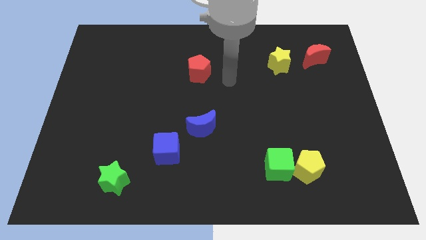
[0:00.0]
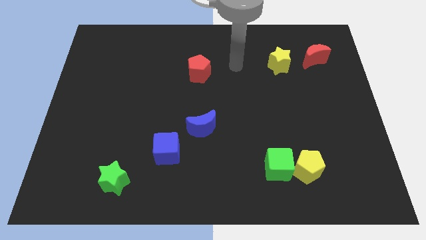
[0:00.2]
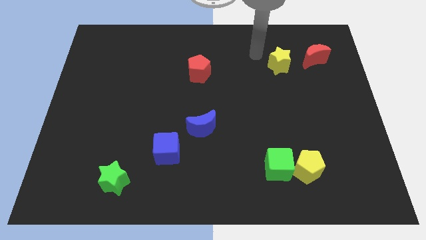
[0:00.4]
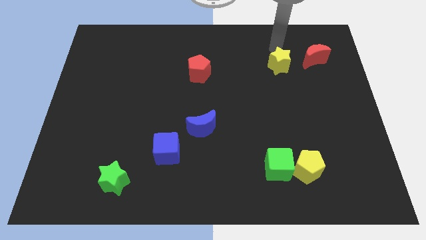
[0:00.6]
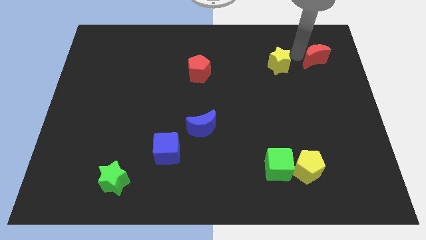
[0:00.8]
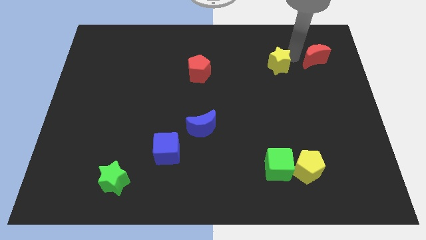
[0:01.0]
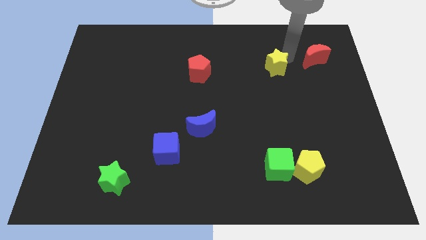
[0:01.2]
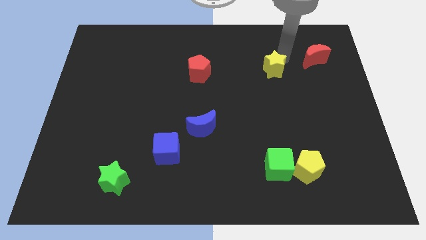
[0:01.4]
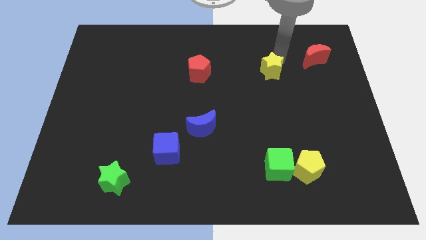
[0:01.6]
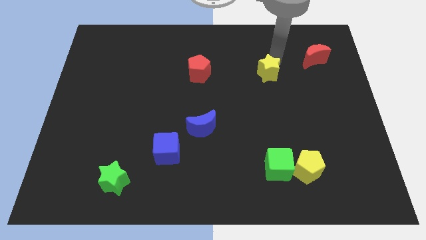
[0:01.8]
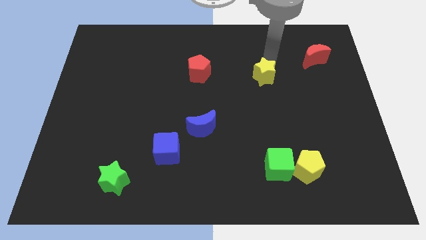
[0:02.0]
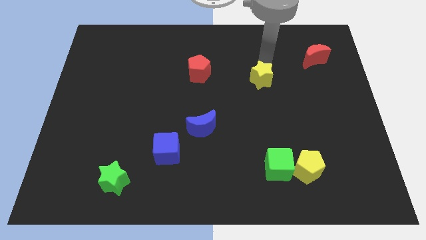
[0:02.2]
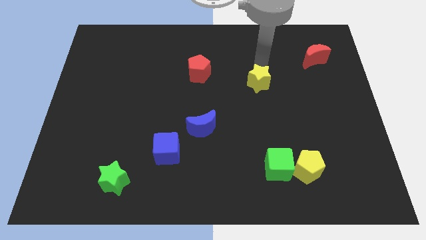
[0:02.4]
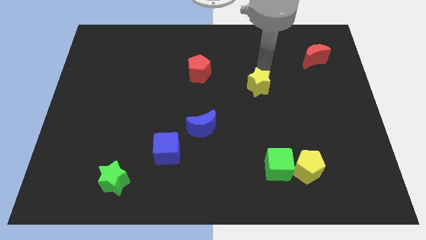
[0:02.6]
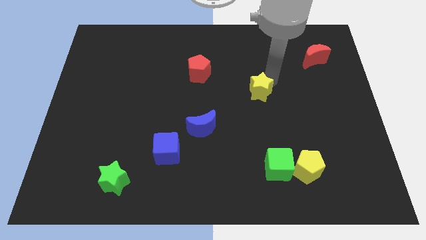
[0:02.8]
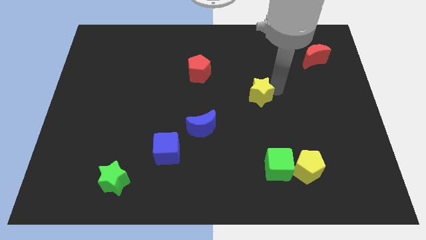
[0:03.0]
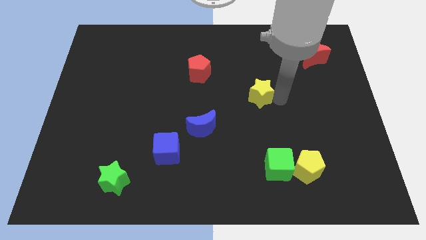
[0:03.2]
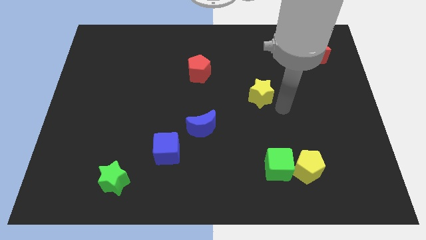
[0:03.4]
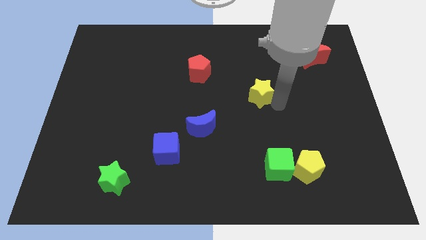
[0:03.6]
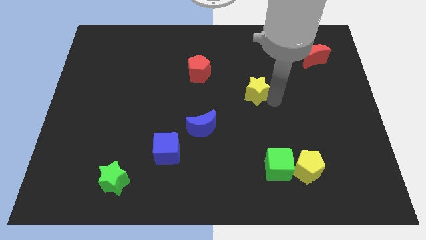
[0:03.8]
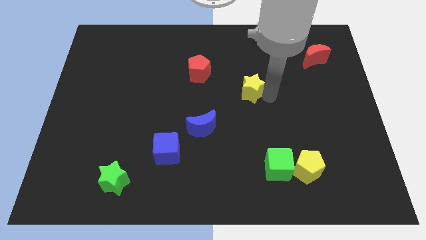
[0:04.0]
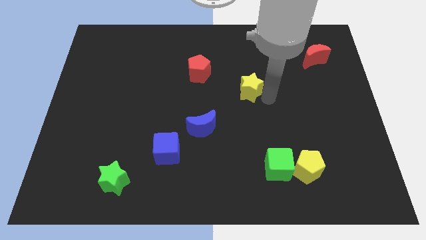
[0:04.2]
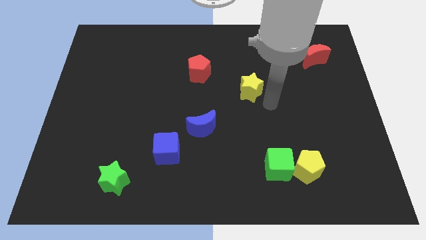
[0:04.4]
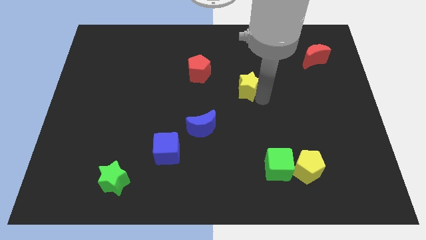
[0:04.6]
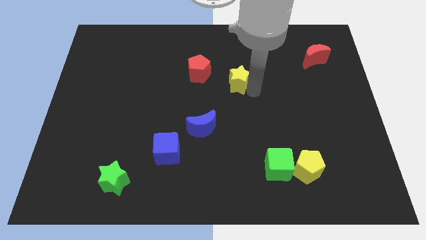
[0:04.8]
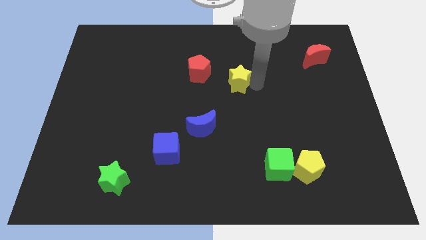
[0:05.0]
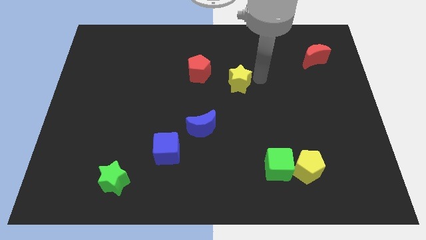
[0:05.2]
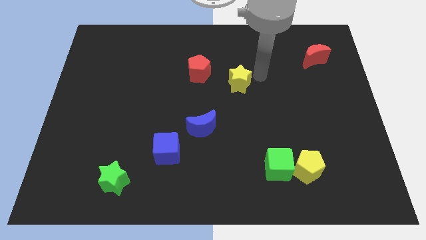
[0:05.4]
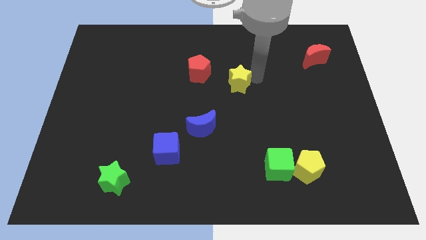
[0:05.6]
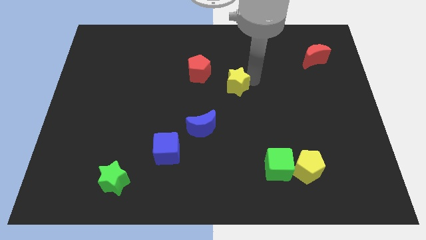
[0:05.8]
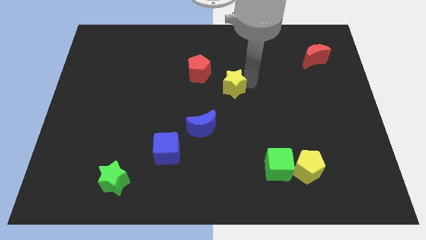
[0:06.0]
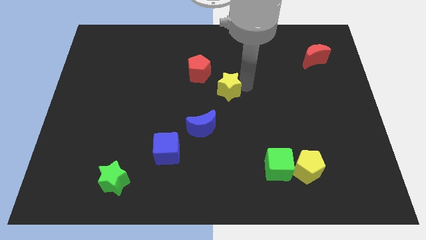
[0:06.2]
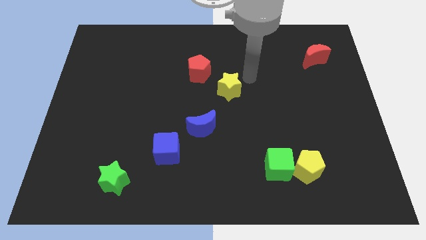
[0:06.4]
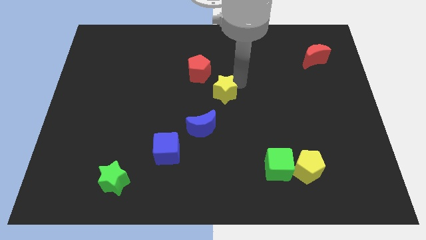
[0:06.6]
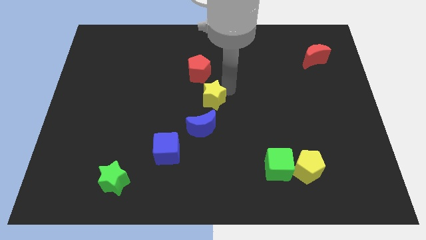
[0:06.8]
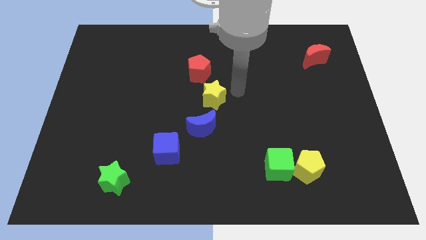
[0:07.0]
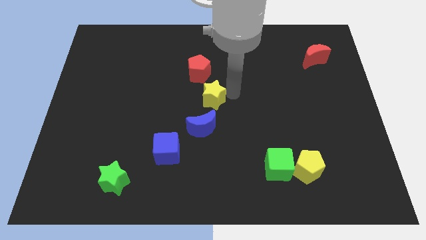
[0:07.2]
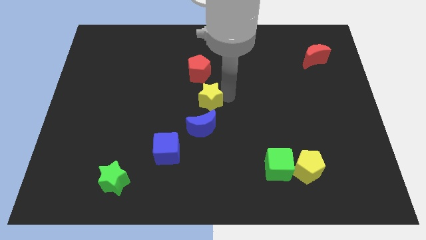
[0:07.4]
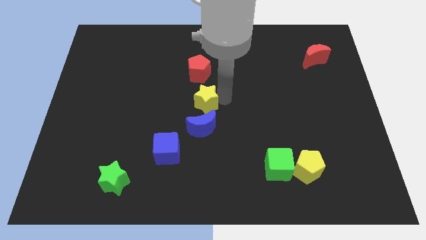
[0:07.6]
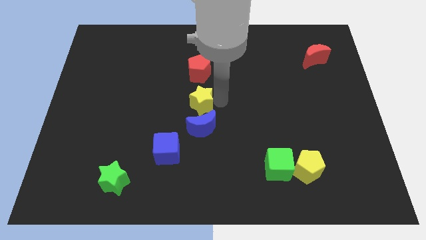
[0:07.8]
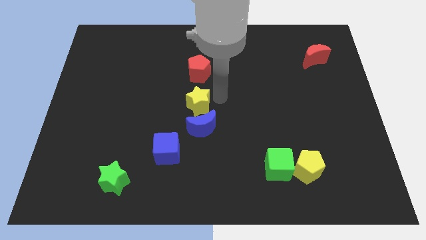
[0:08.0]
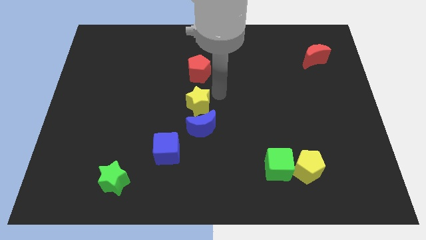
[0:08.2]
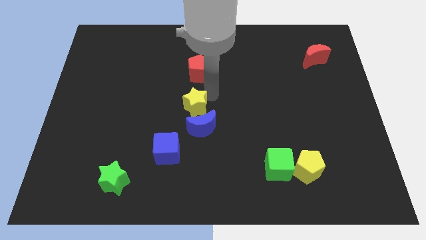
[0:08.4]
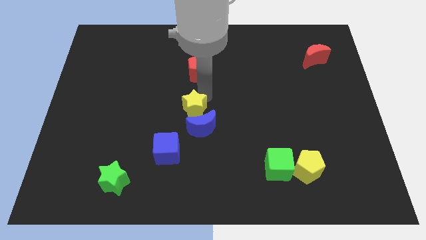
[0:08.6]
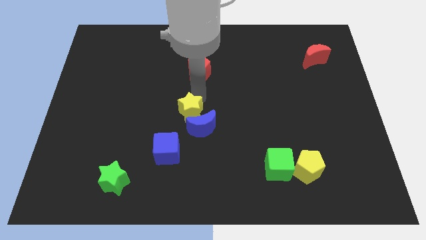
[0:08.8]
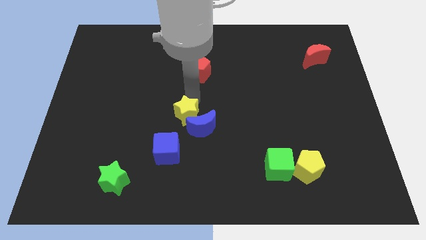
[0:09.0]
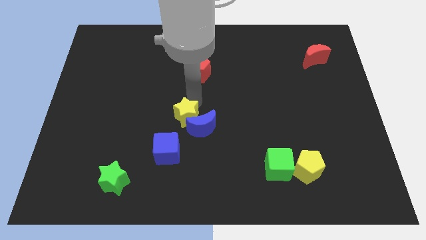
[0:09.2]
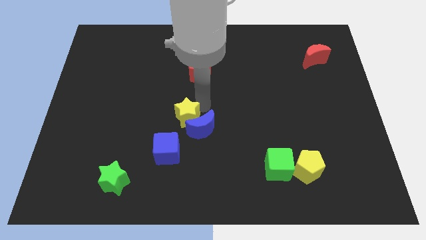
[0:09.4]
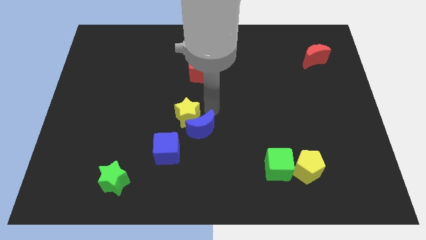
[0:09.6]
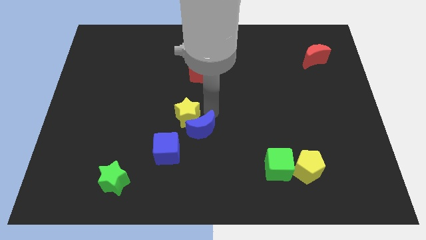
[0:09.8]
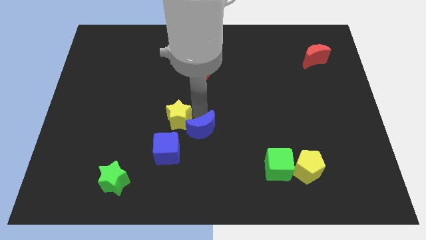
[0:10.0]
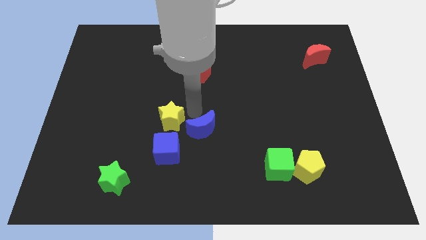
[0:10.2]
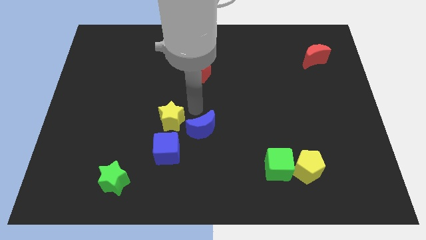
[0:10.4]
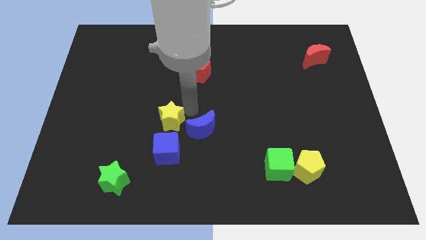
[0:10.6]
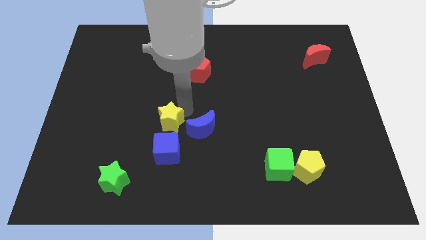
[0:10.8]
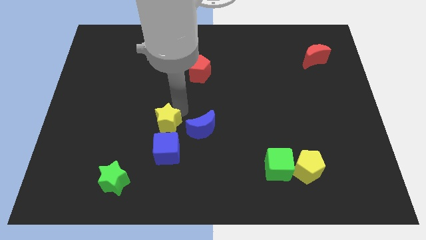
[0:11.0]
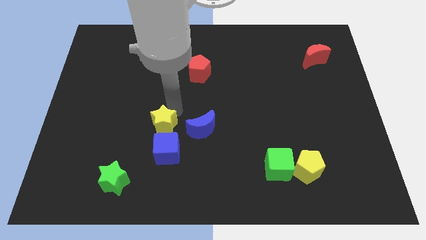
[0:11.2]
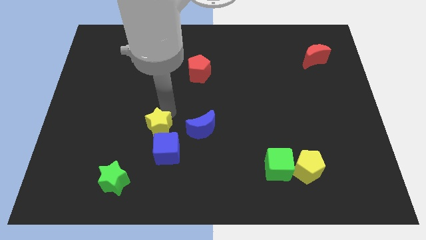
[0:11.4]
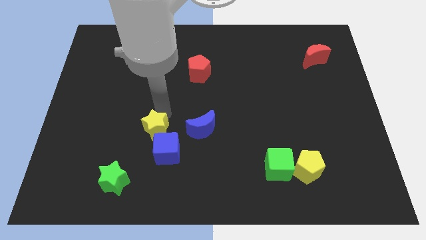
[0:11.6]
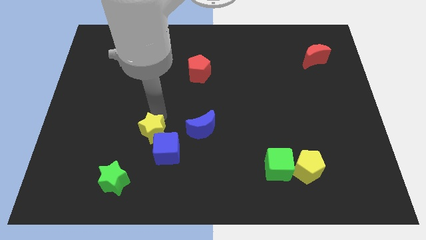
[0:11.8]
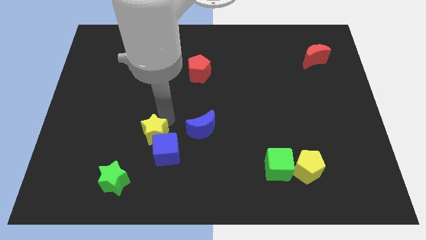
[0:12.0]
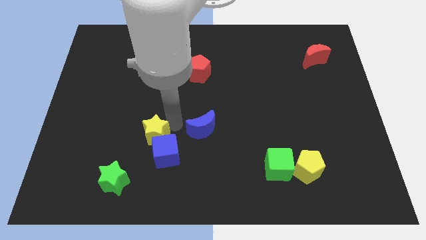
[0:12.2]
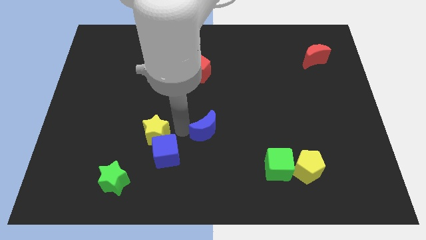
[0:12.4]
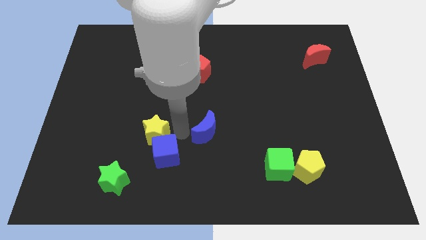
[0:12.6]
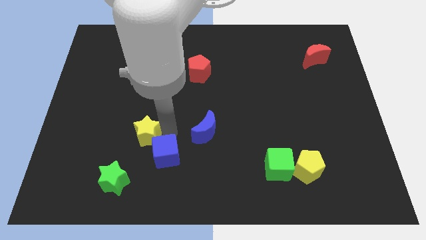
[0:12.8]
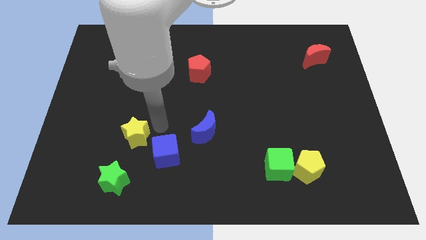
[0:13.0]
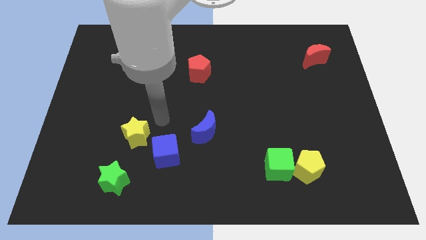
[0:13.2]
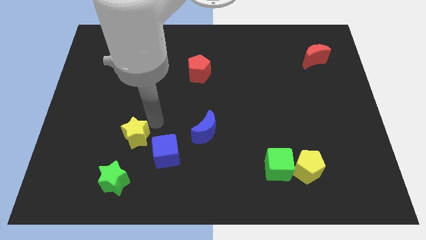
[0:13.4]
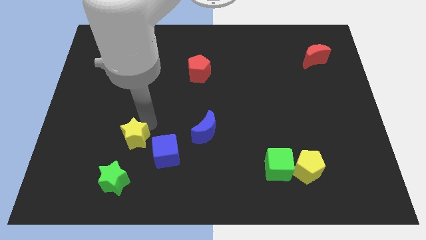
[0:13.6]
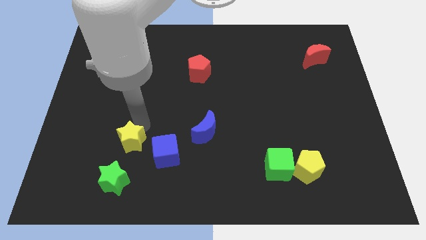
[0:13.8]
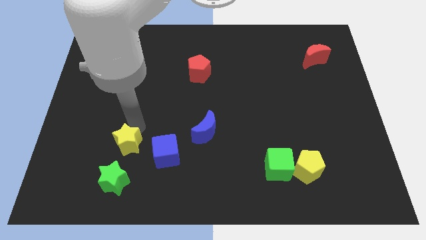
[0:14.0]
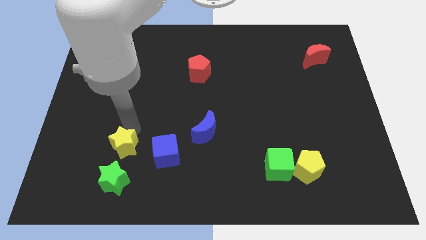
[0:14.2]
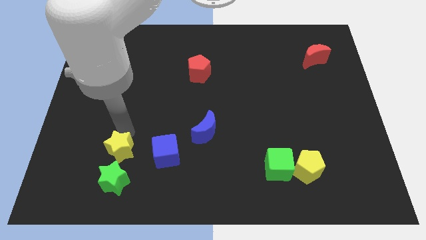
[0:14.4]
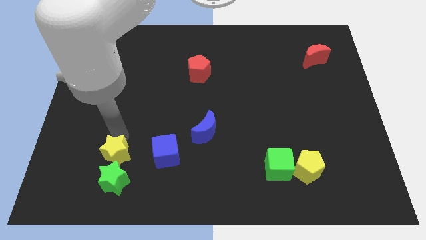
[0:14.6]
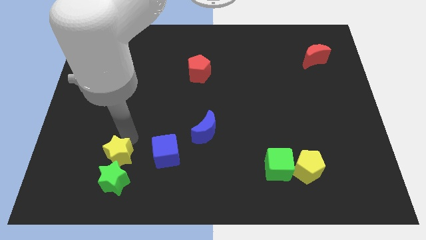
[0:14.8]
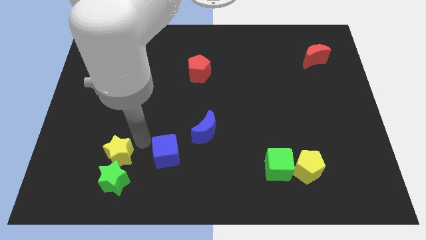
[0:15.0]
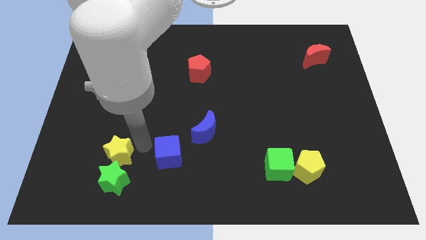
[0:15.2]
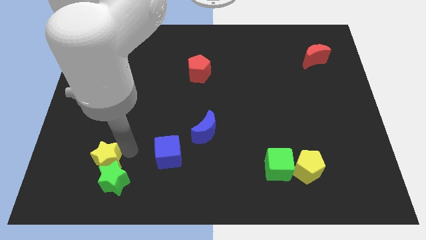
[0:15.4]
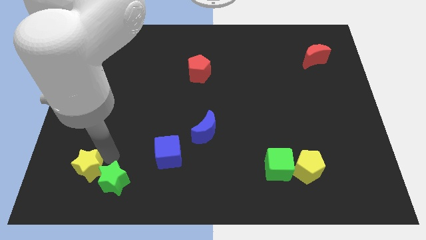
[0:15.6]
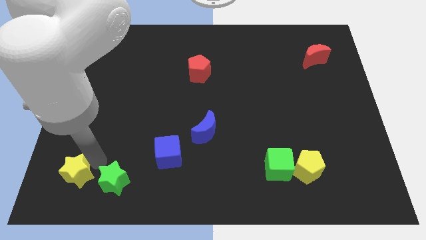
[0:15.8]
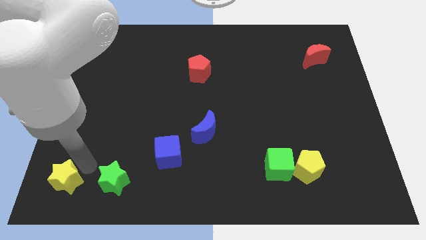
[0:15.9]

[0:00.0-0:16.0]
slide the yellow star to the bottom left corner
